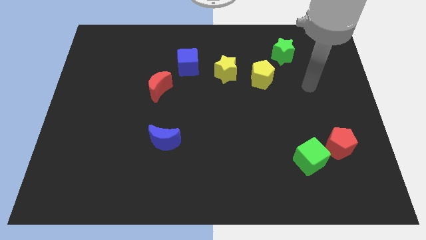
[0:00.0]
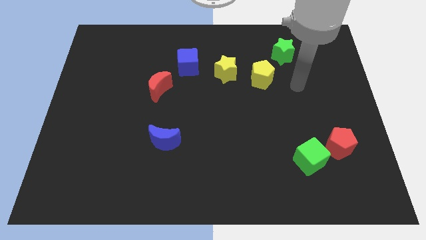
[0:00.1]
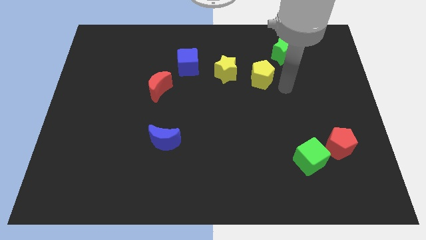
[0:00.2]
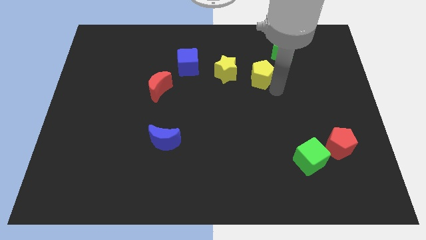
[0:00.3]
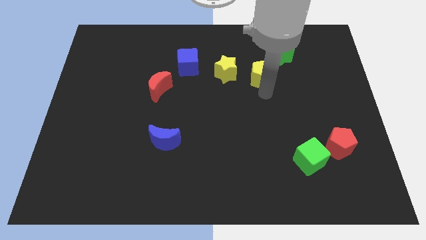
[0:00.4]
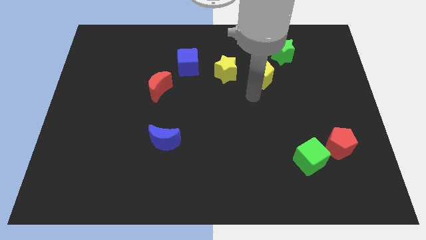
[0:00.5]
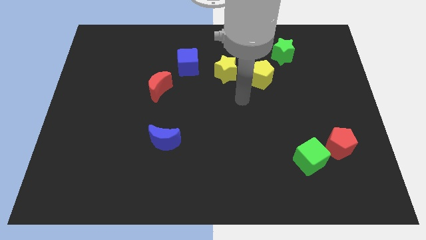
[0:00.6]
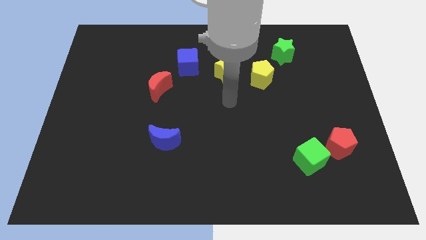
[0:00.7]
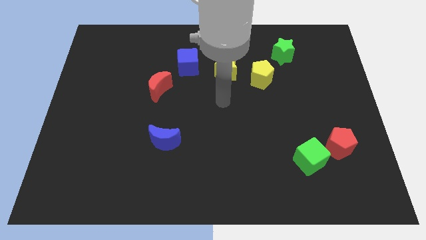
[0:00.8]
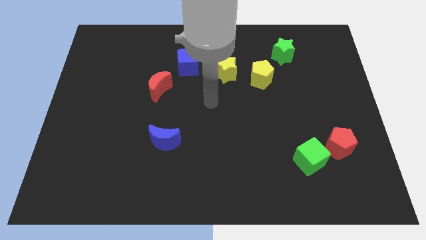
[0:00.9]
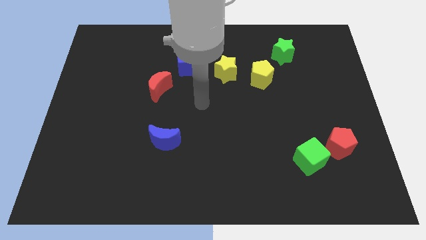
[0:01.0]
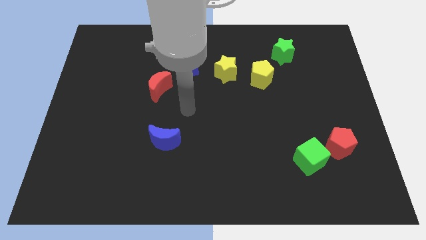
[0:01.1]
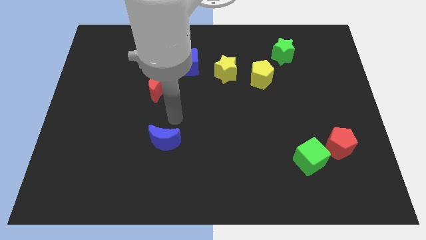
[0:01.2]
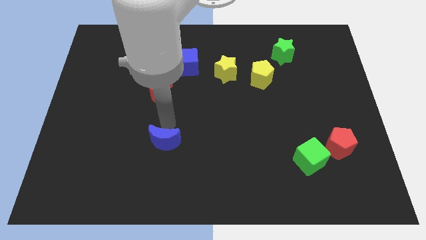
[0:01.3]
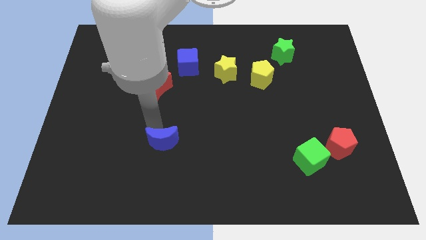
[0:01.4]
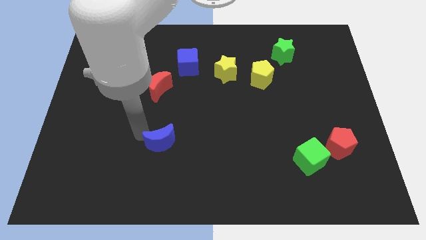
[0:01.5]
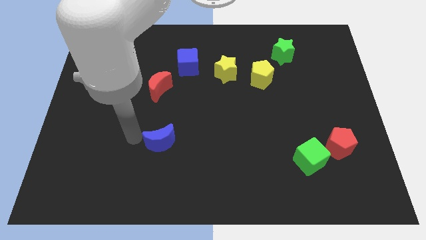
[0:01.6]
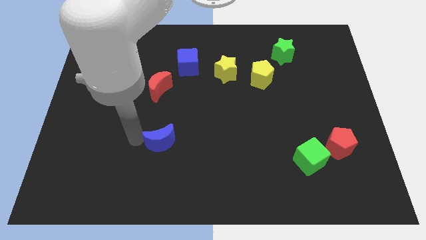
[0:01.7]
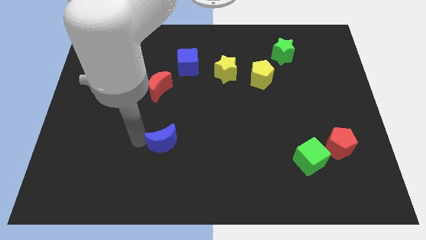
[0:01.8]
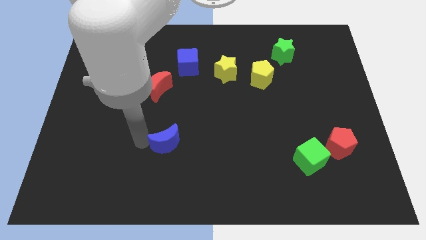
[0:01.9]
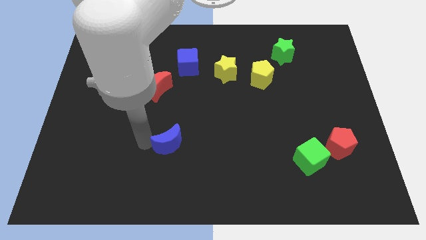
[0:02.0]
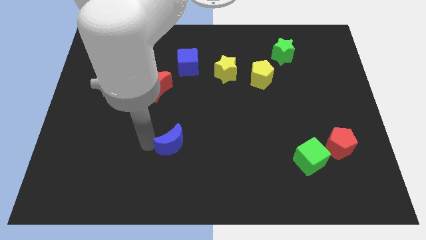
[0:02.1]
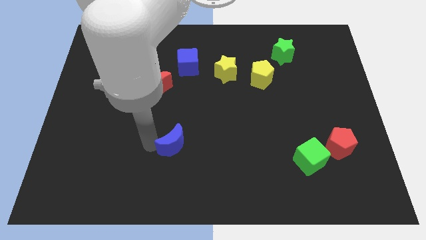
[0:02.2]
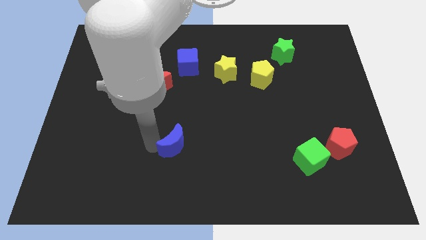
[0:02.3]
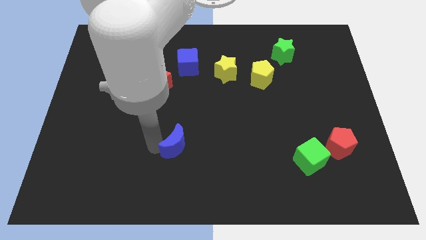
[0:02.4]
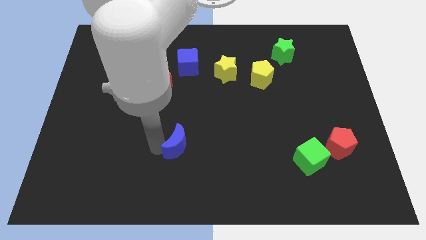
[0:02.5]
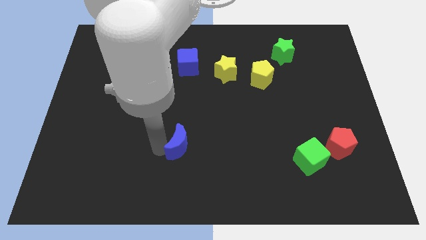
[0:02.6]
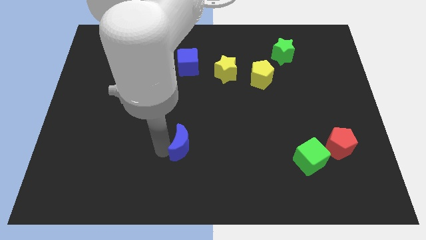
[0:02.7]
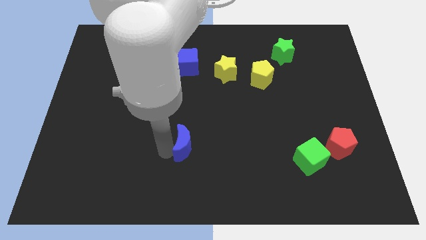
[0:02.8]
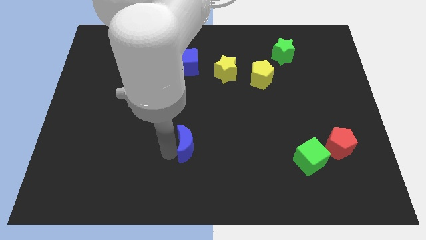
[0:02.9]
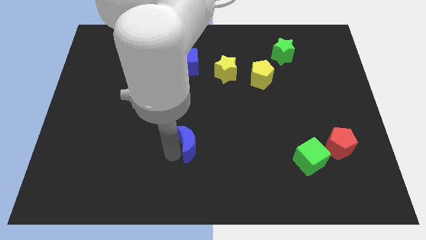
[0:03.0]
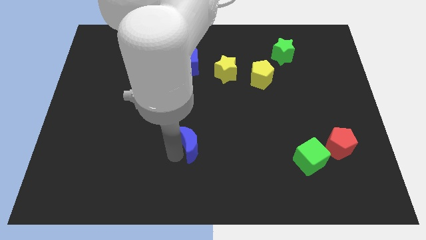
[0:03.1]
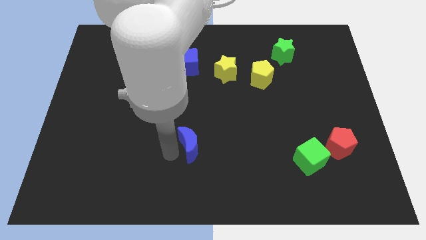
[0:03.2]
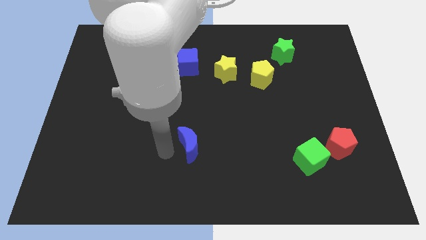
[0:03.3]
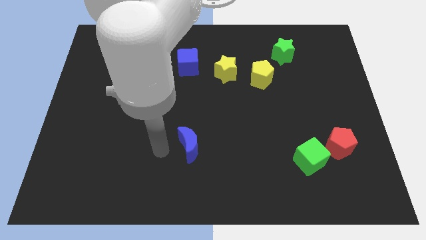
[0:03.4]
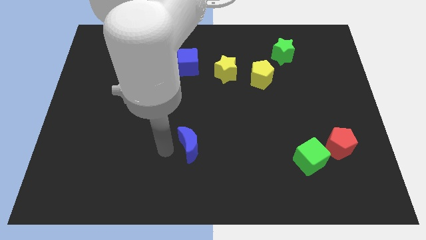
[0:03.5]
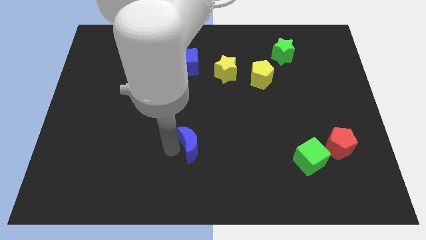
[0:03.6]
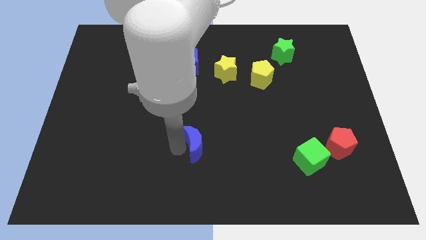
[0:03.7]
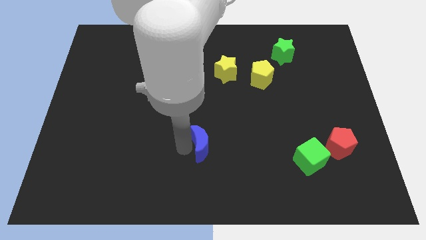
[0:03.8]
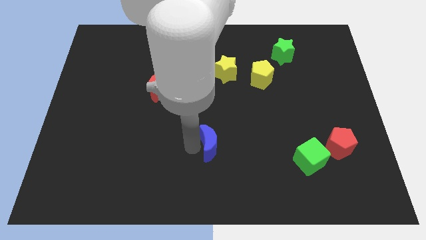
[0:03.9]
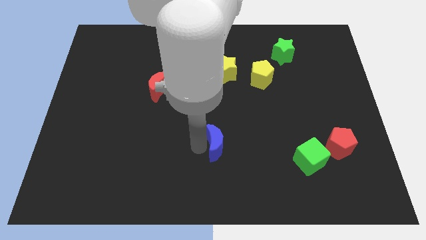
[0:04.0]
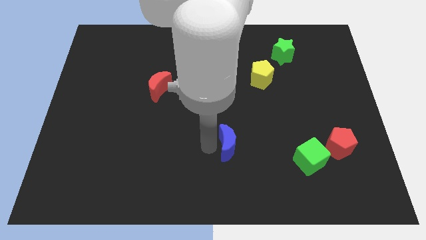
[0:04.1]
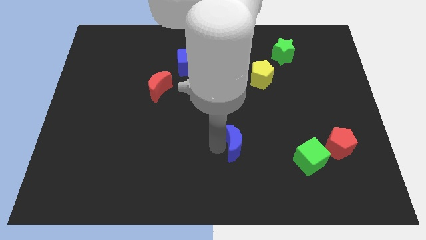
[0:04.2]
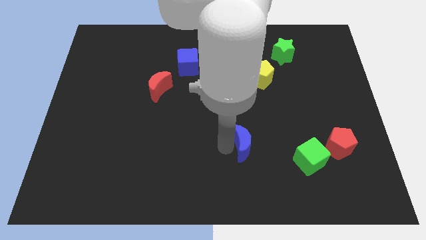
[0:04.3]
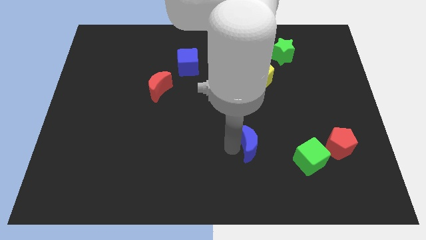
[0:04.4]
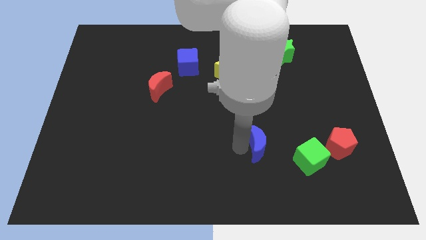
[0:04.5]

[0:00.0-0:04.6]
slide the blue moon right

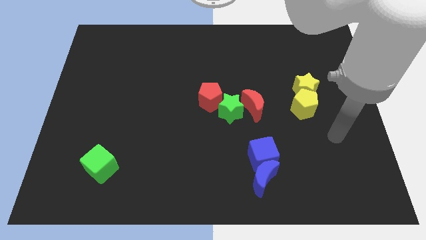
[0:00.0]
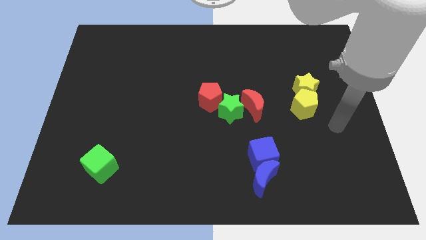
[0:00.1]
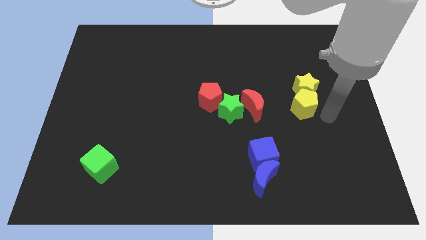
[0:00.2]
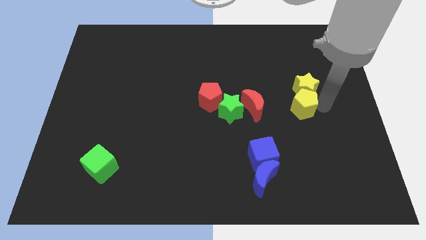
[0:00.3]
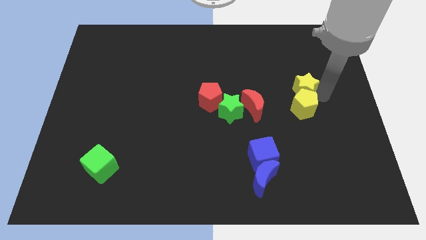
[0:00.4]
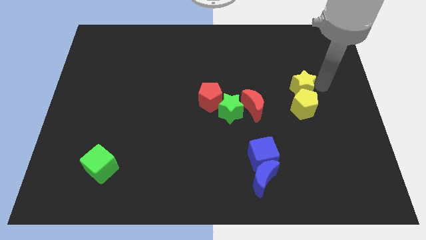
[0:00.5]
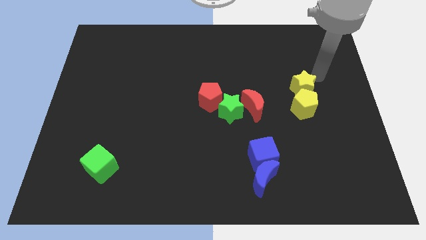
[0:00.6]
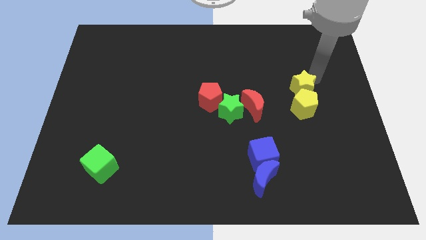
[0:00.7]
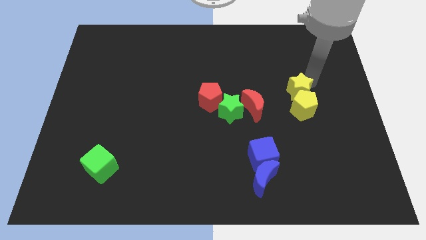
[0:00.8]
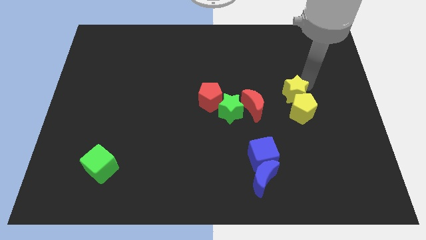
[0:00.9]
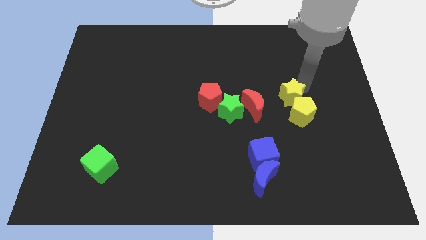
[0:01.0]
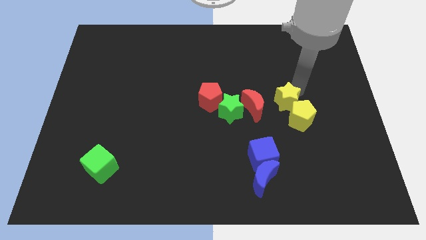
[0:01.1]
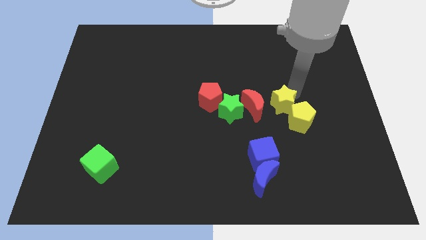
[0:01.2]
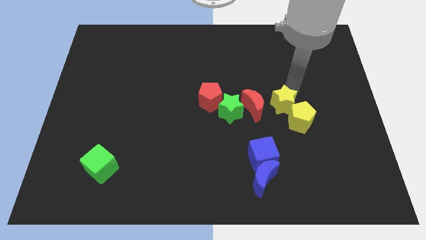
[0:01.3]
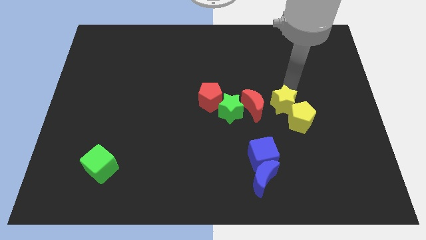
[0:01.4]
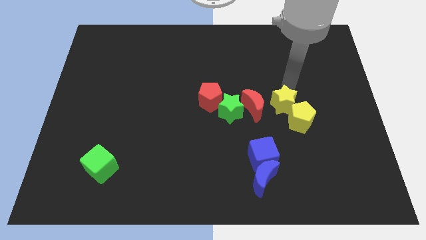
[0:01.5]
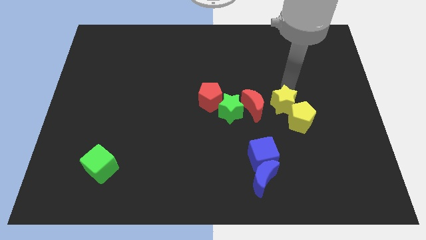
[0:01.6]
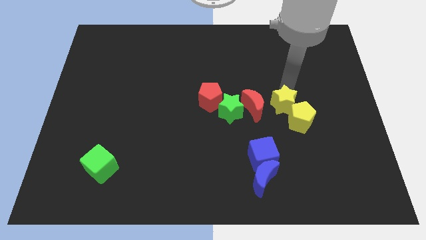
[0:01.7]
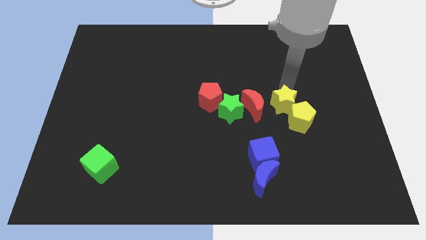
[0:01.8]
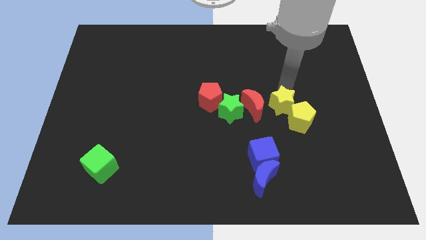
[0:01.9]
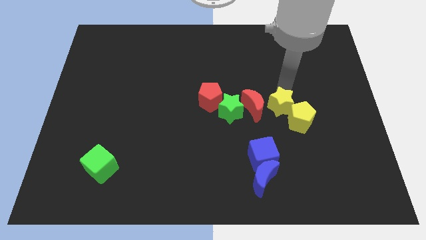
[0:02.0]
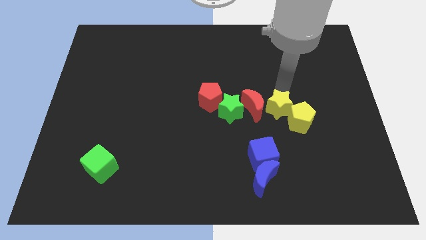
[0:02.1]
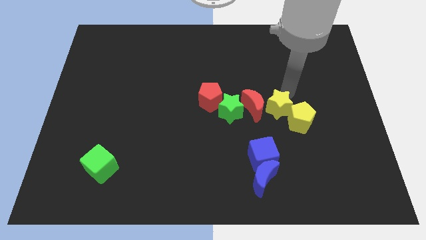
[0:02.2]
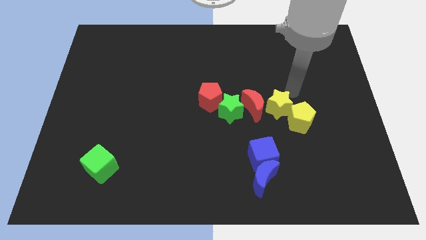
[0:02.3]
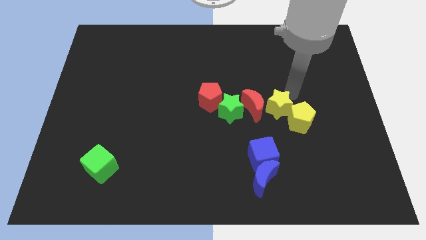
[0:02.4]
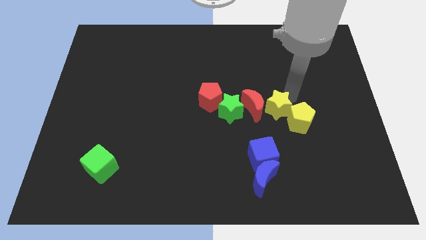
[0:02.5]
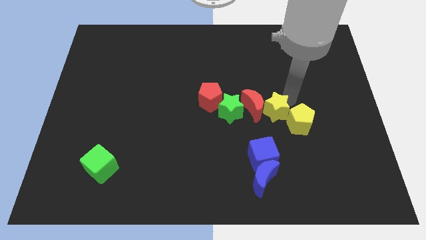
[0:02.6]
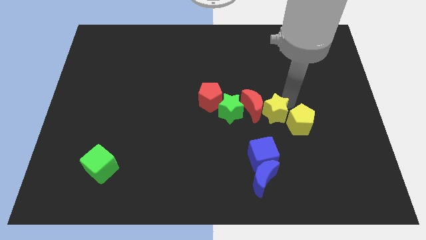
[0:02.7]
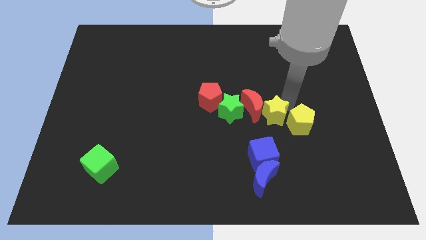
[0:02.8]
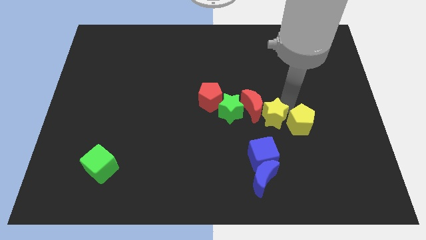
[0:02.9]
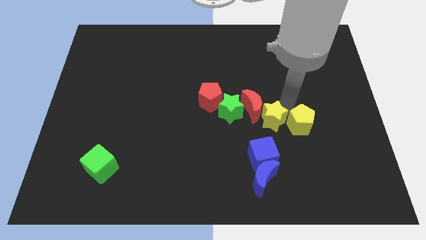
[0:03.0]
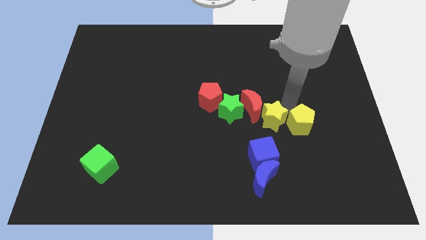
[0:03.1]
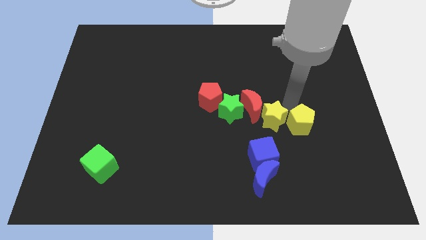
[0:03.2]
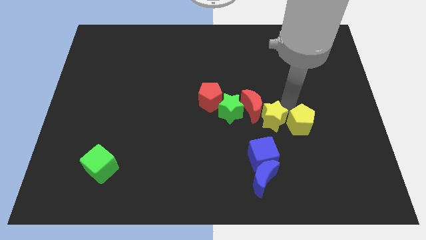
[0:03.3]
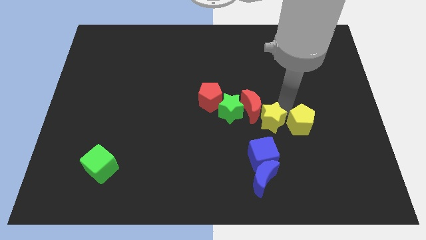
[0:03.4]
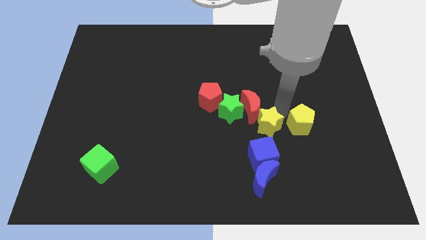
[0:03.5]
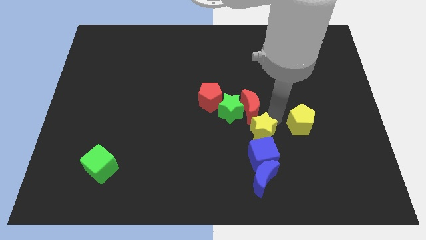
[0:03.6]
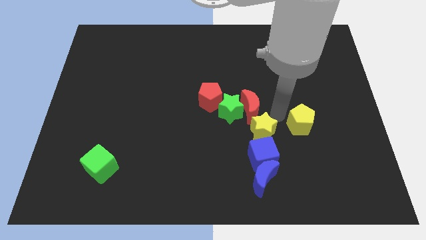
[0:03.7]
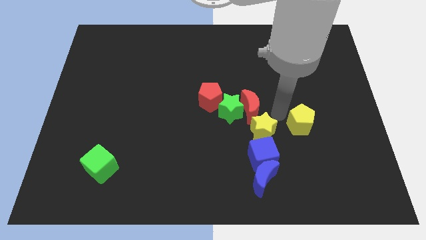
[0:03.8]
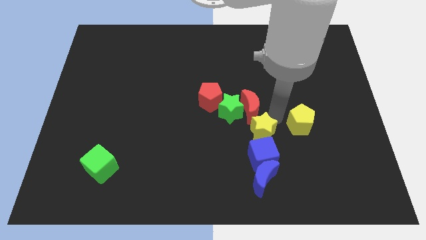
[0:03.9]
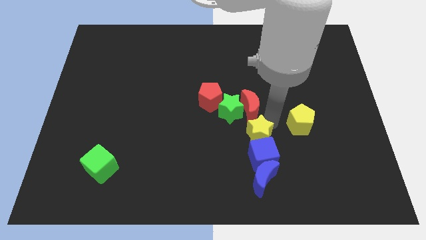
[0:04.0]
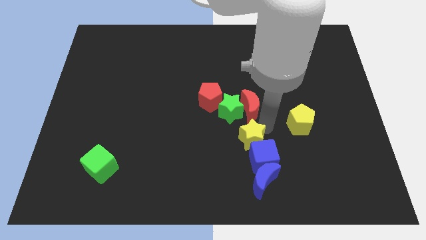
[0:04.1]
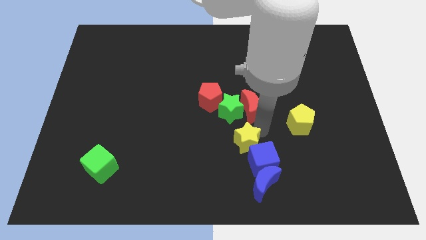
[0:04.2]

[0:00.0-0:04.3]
push the yellow star diagonally down and to the left
